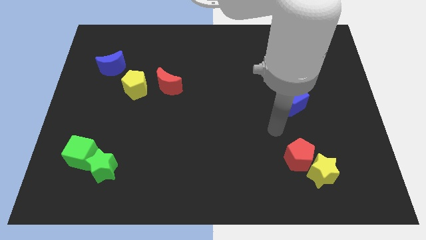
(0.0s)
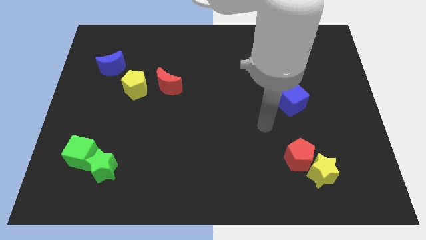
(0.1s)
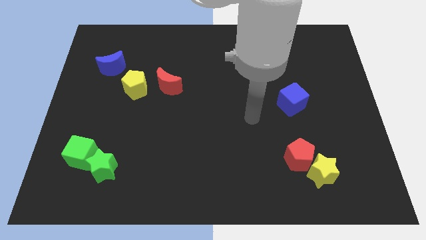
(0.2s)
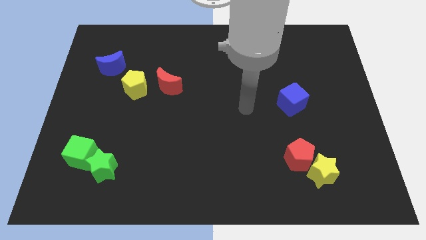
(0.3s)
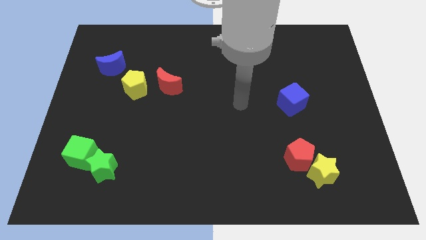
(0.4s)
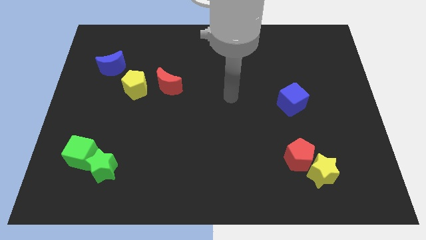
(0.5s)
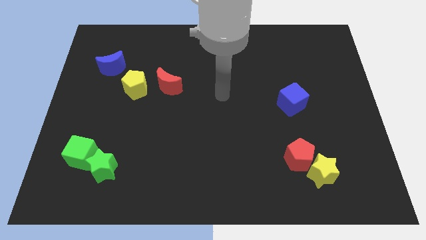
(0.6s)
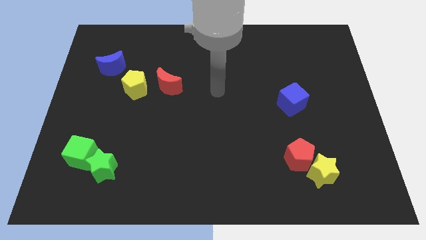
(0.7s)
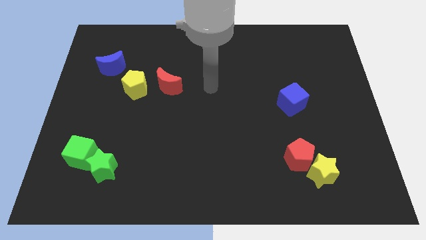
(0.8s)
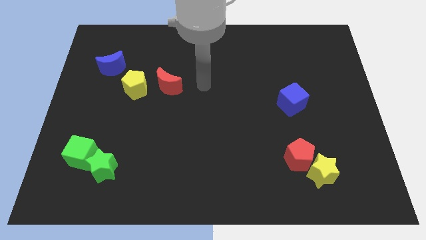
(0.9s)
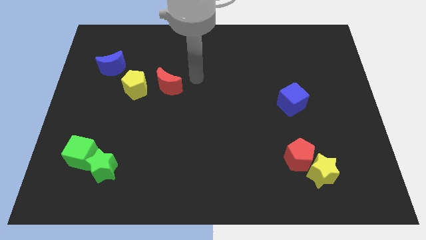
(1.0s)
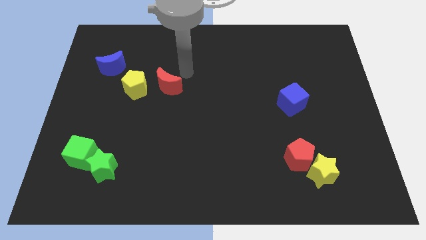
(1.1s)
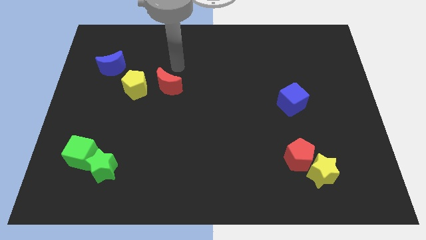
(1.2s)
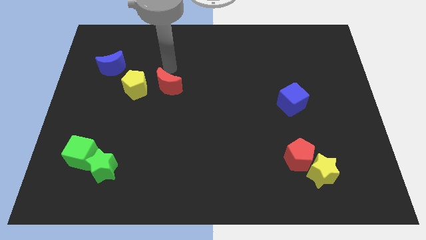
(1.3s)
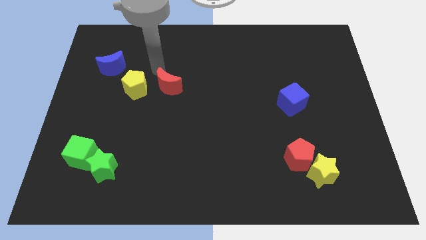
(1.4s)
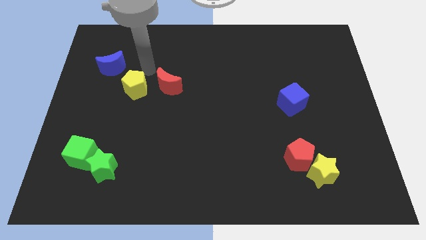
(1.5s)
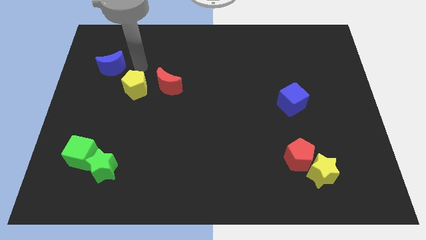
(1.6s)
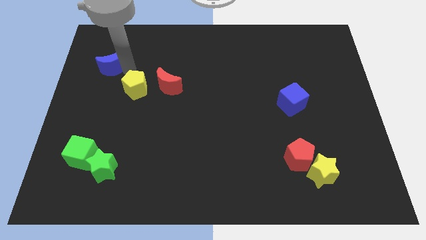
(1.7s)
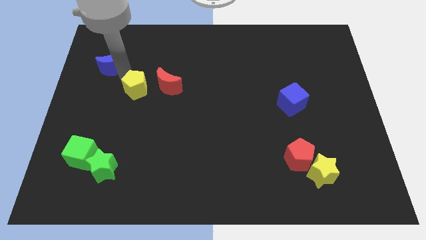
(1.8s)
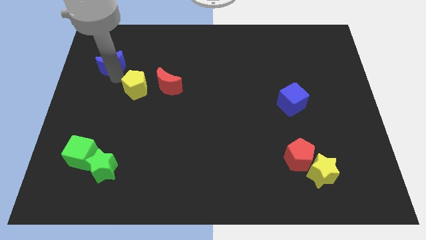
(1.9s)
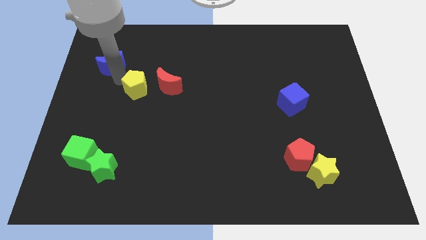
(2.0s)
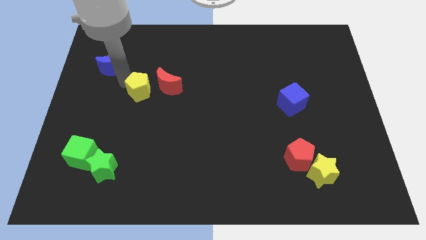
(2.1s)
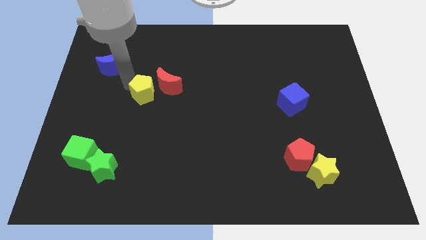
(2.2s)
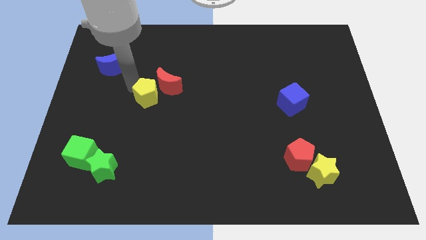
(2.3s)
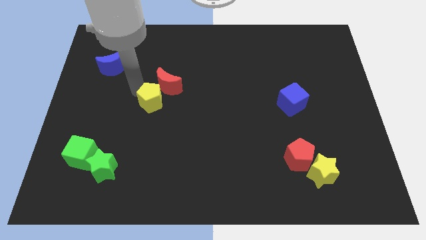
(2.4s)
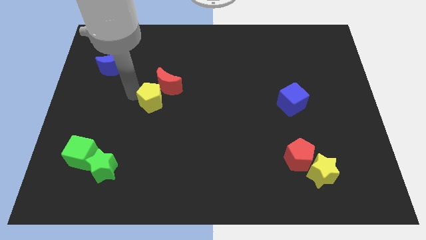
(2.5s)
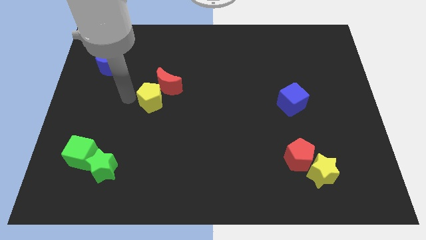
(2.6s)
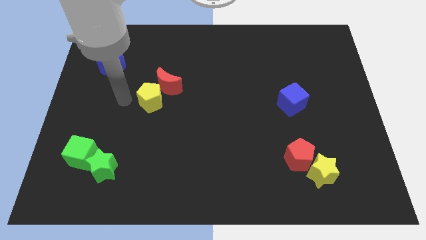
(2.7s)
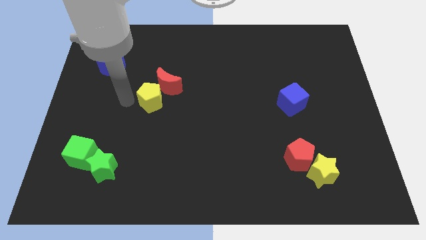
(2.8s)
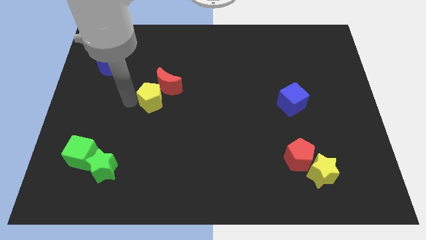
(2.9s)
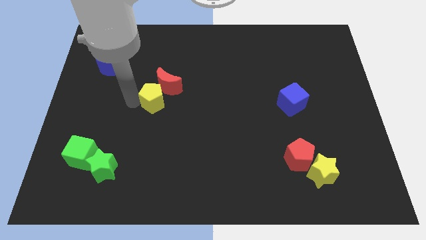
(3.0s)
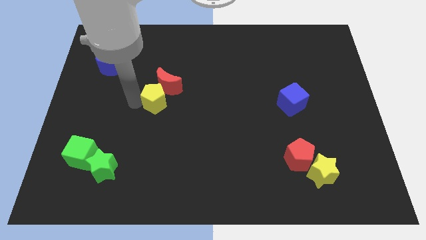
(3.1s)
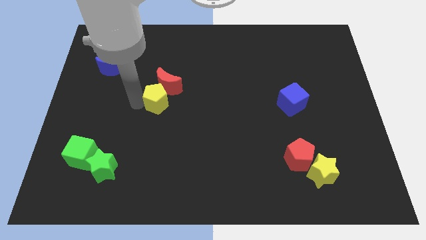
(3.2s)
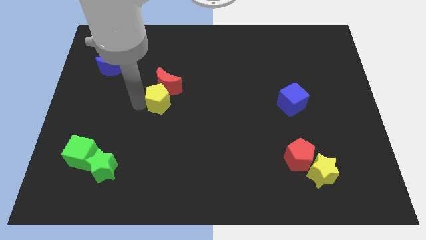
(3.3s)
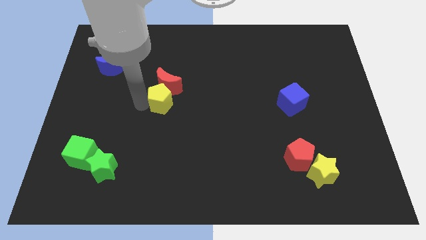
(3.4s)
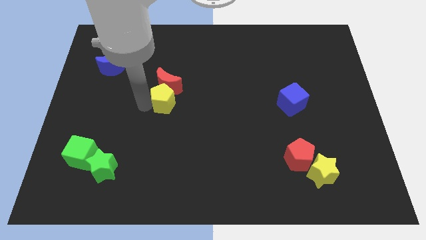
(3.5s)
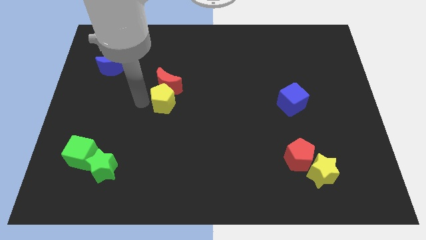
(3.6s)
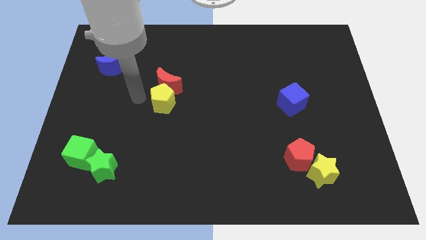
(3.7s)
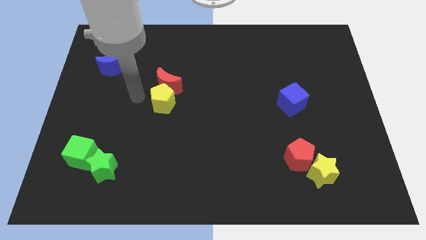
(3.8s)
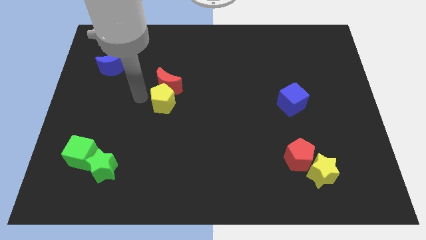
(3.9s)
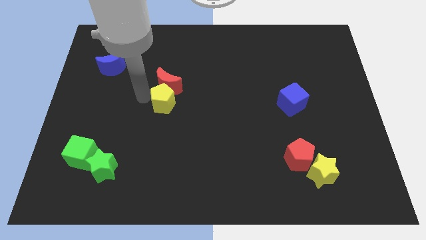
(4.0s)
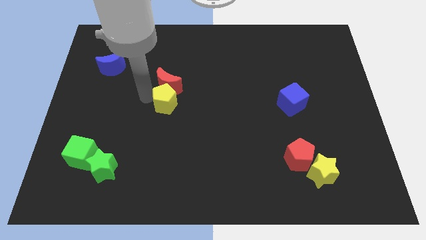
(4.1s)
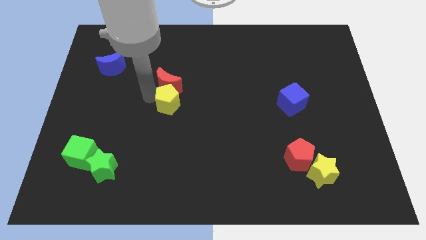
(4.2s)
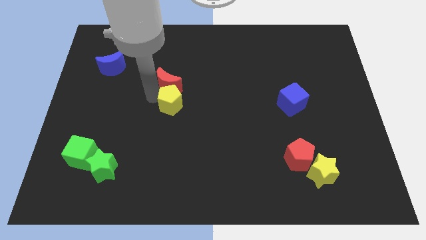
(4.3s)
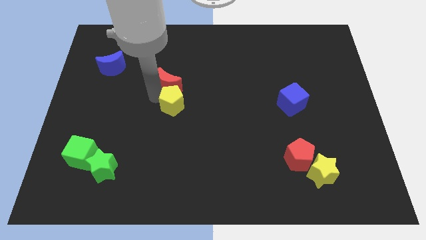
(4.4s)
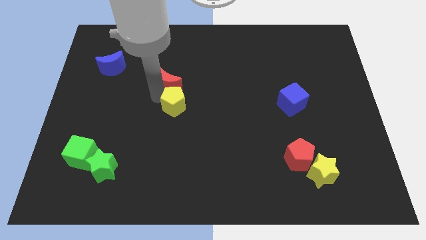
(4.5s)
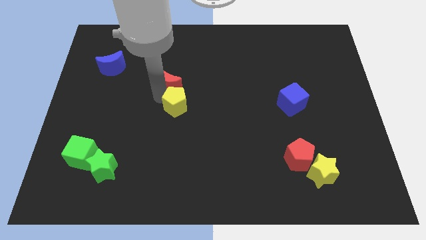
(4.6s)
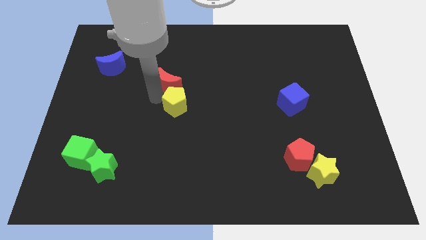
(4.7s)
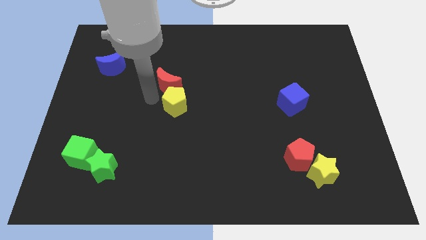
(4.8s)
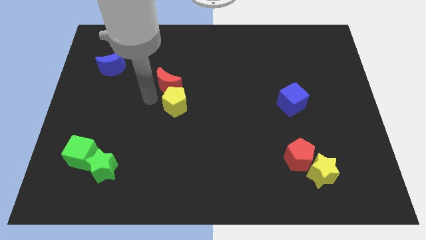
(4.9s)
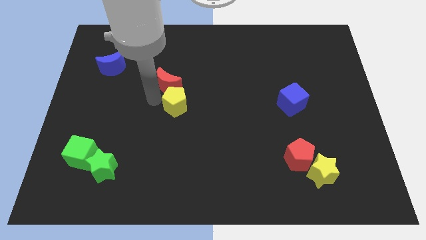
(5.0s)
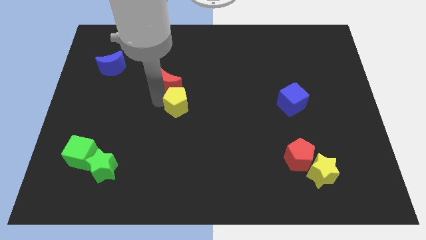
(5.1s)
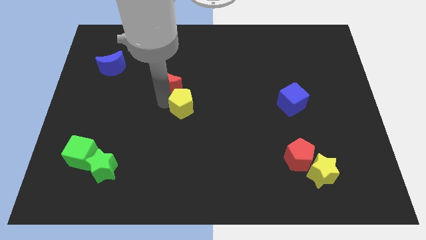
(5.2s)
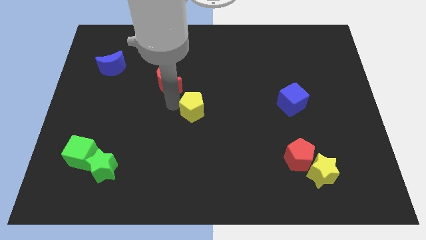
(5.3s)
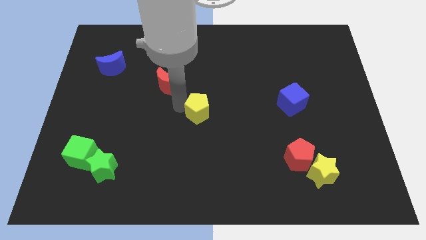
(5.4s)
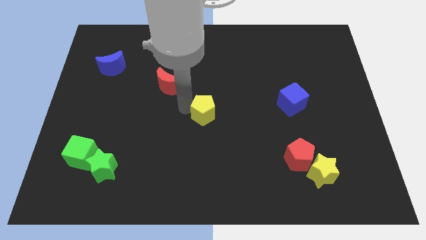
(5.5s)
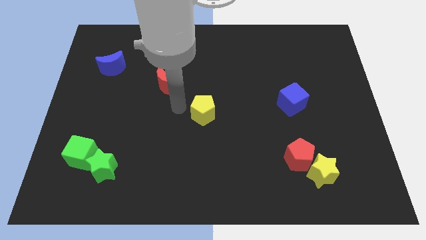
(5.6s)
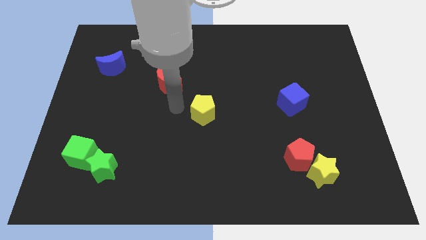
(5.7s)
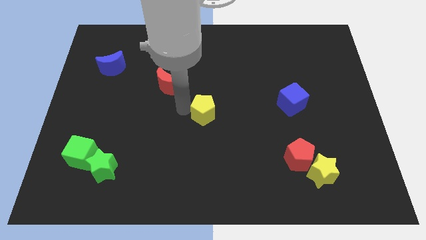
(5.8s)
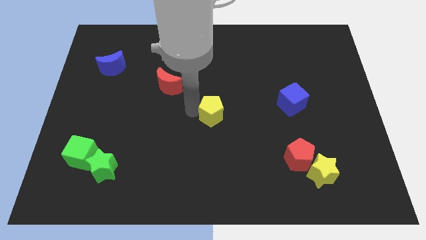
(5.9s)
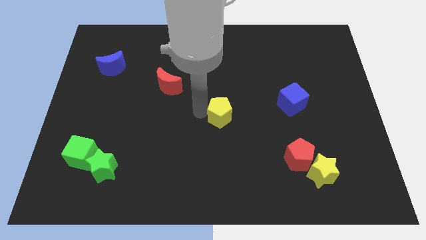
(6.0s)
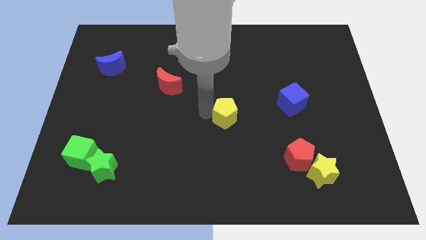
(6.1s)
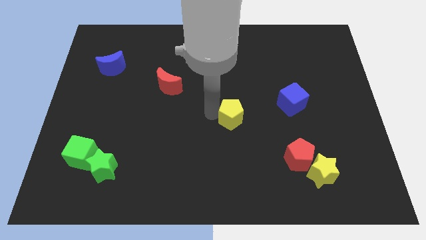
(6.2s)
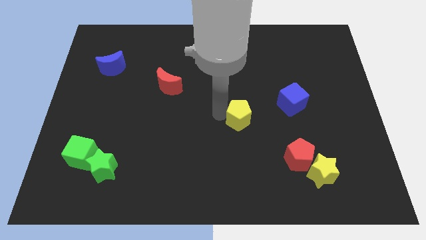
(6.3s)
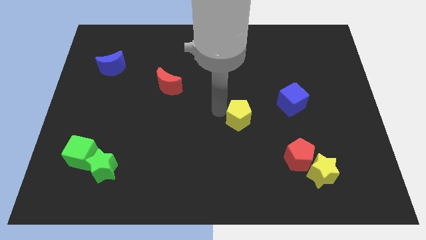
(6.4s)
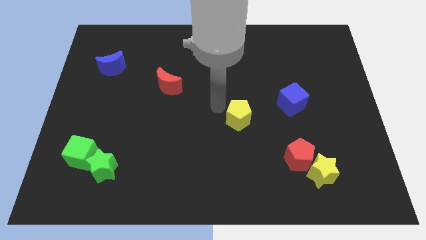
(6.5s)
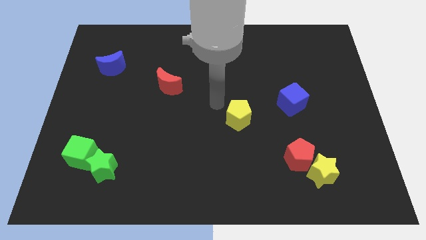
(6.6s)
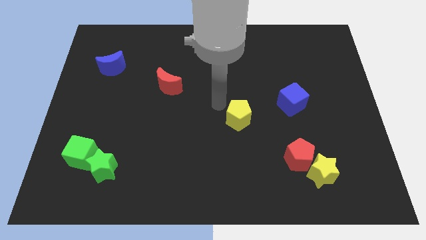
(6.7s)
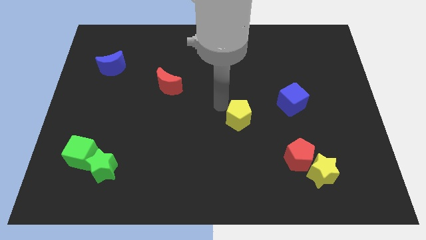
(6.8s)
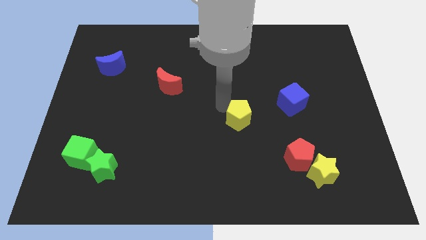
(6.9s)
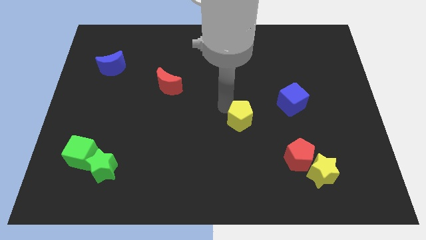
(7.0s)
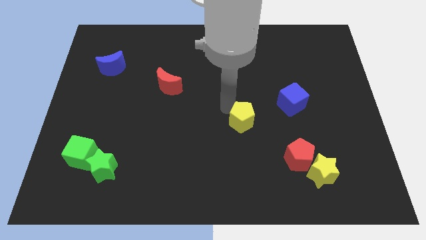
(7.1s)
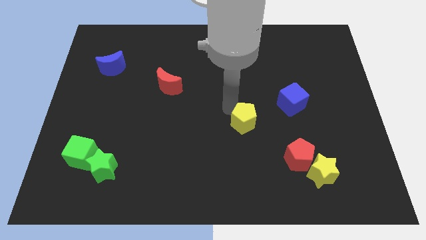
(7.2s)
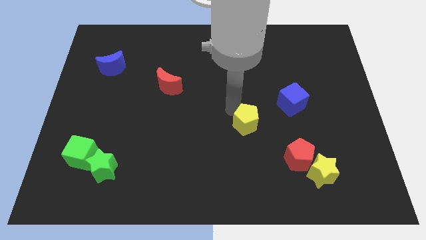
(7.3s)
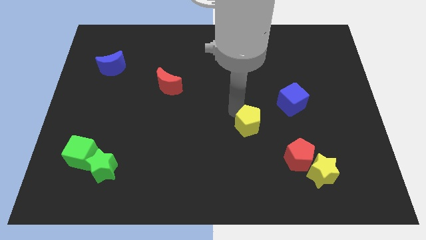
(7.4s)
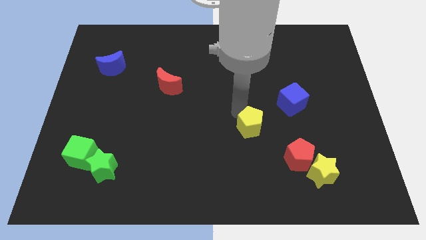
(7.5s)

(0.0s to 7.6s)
move the yellow pentagon to the top left side of the red pentagon

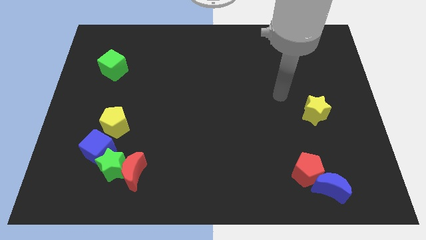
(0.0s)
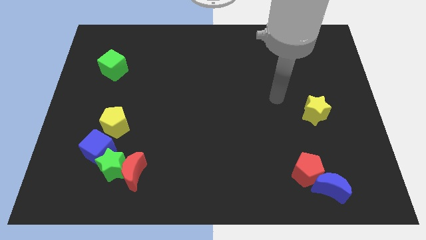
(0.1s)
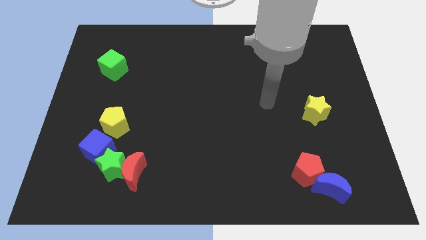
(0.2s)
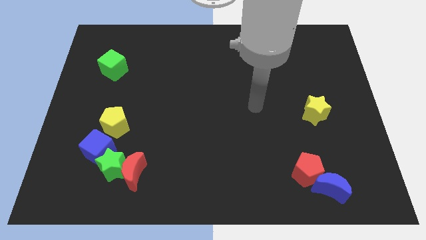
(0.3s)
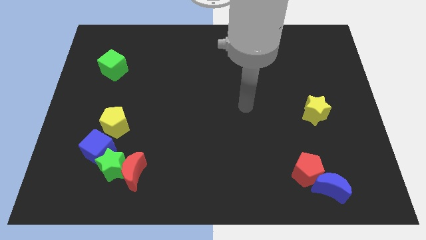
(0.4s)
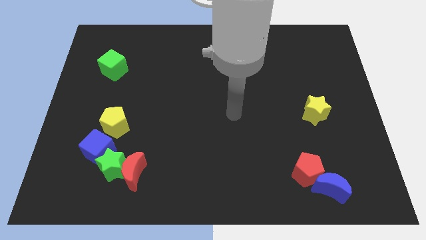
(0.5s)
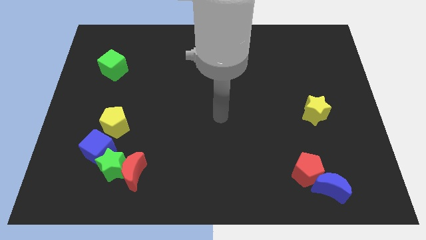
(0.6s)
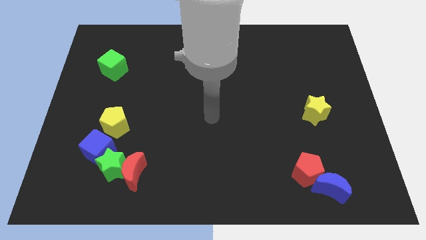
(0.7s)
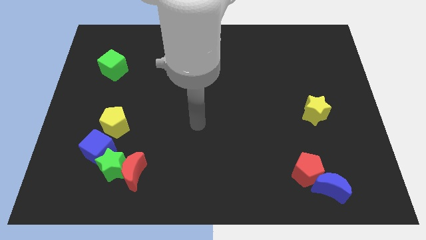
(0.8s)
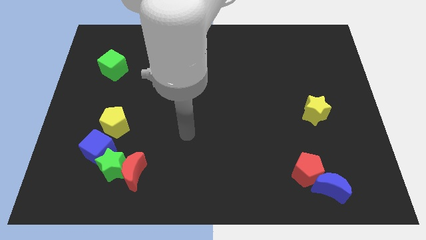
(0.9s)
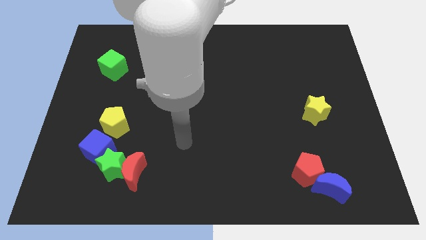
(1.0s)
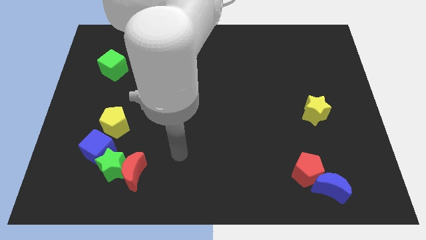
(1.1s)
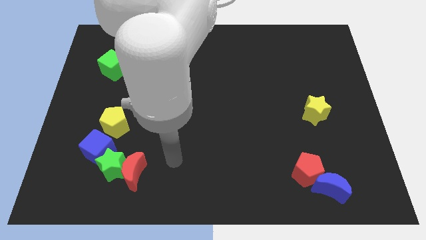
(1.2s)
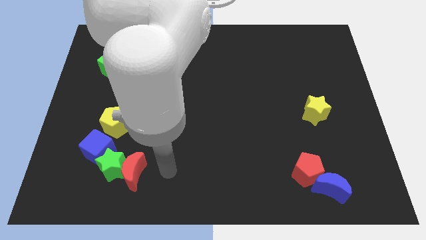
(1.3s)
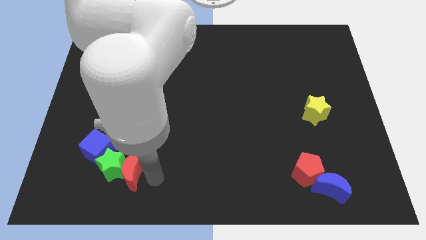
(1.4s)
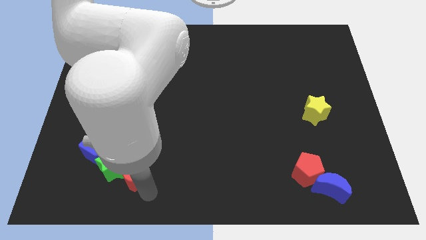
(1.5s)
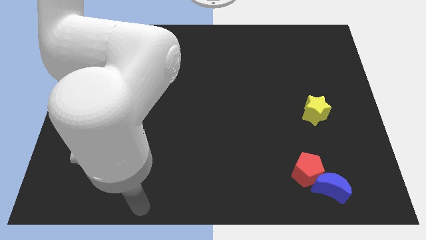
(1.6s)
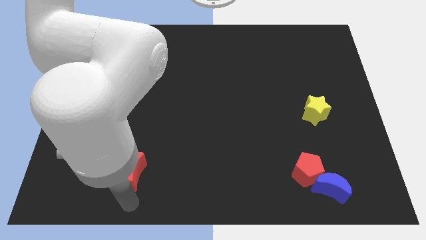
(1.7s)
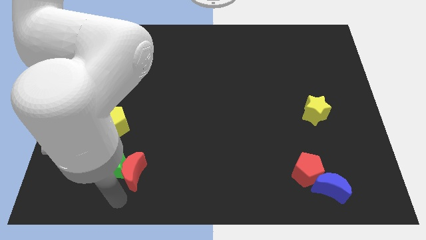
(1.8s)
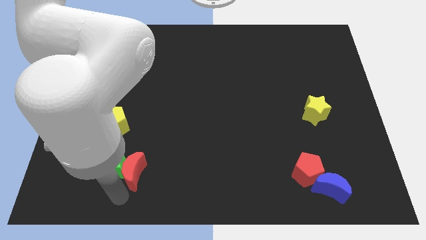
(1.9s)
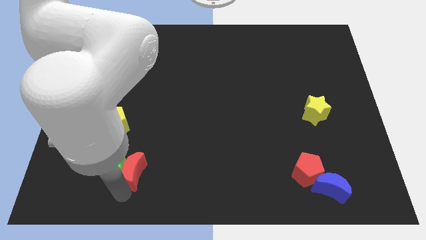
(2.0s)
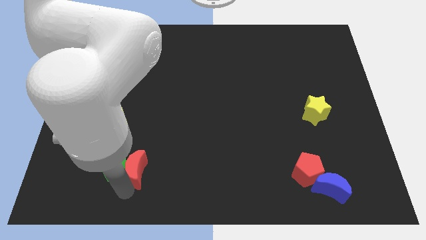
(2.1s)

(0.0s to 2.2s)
move the red moon right of the blue cube
